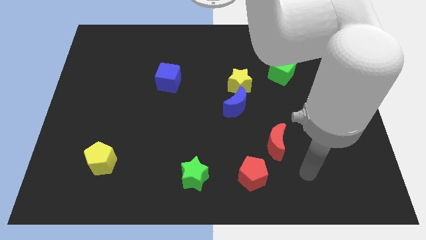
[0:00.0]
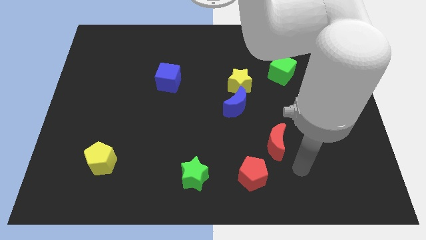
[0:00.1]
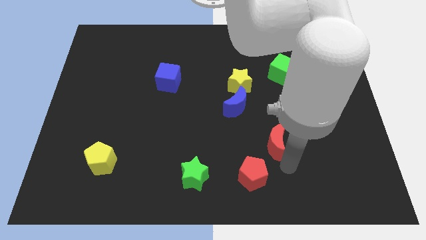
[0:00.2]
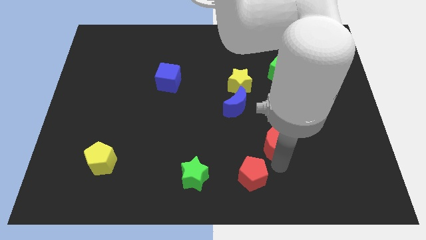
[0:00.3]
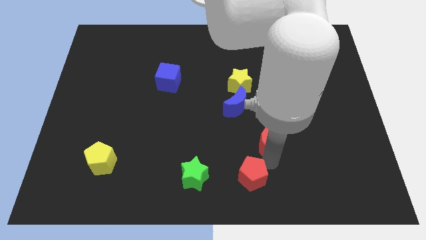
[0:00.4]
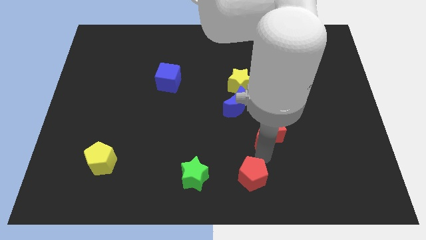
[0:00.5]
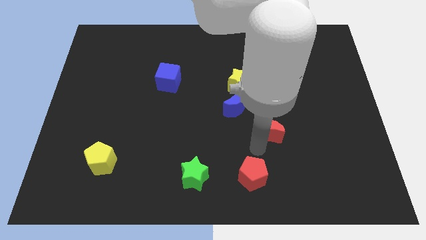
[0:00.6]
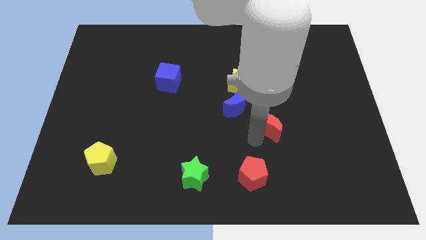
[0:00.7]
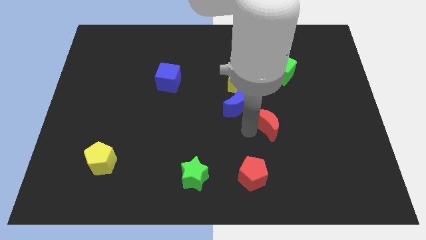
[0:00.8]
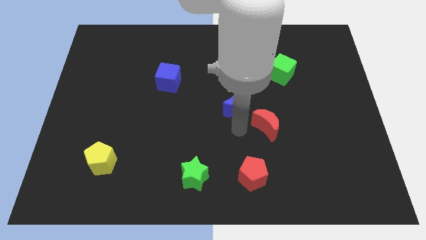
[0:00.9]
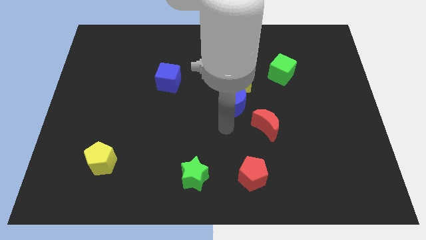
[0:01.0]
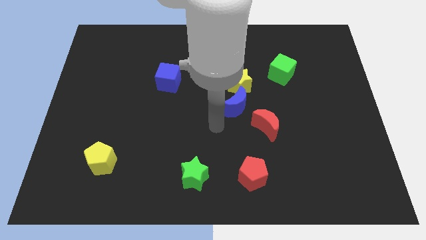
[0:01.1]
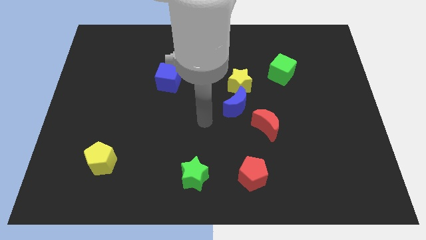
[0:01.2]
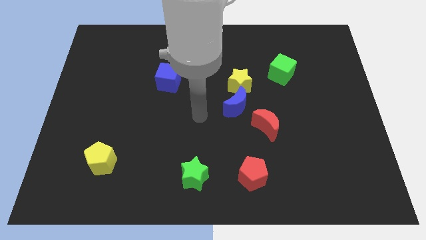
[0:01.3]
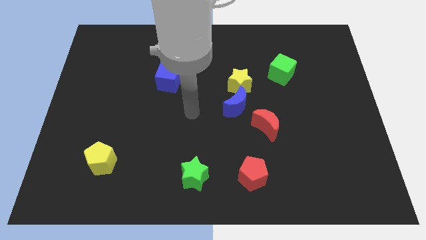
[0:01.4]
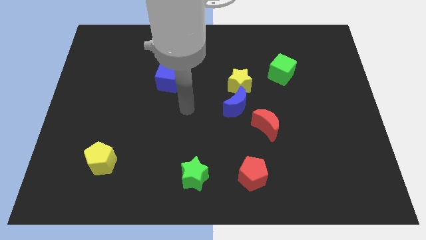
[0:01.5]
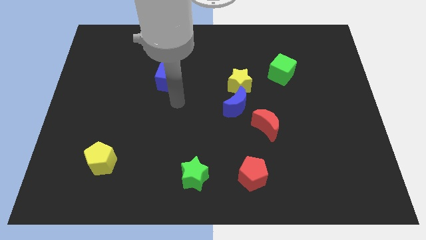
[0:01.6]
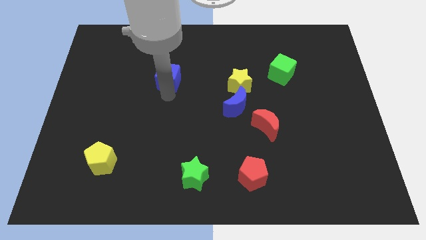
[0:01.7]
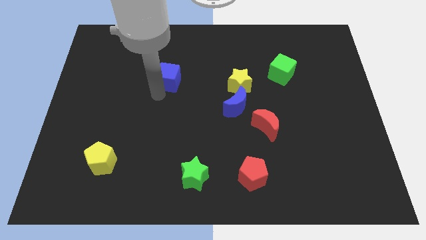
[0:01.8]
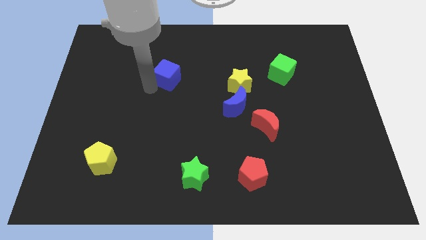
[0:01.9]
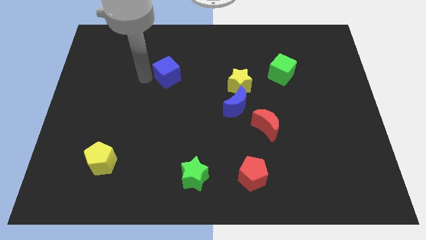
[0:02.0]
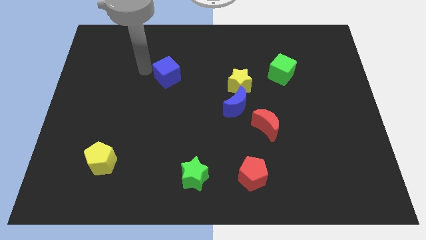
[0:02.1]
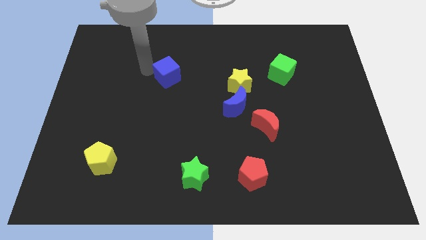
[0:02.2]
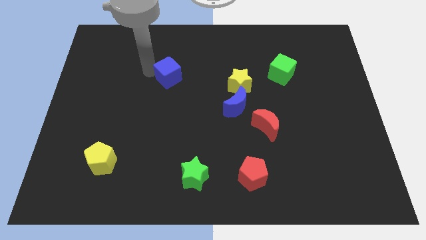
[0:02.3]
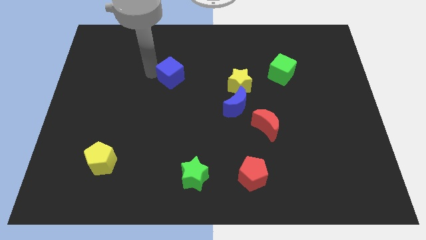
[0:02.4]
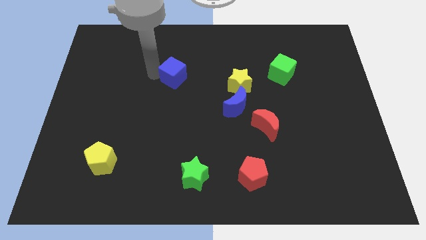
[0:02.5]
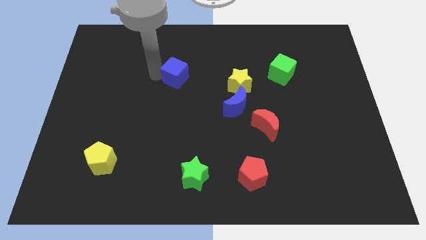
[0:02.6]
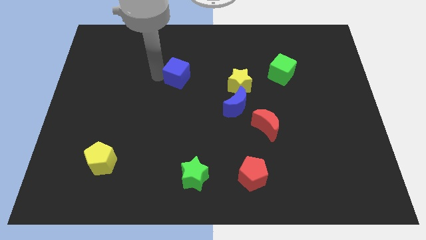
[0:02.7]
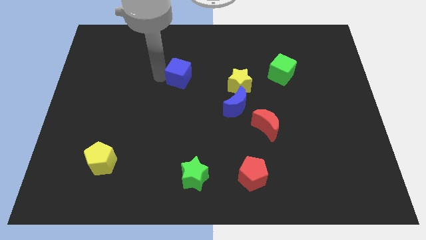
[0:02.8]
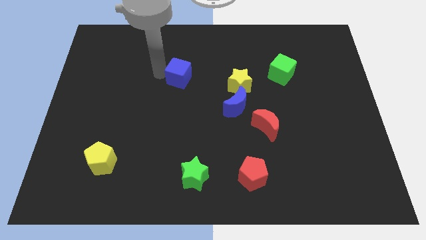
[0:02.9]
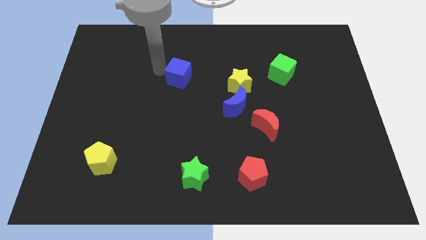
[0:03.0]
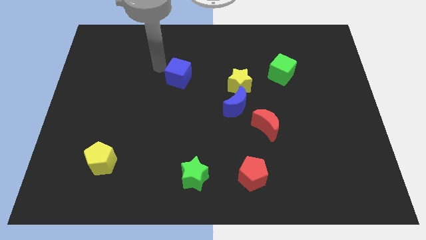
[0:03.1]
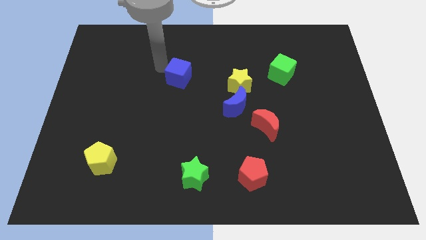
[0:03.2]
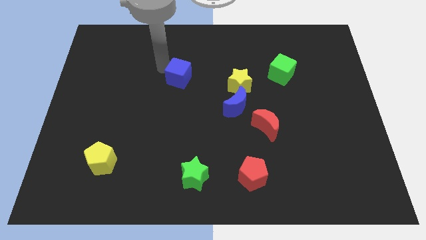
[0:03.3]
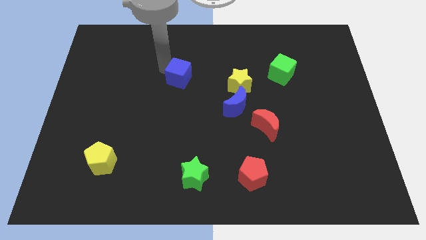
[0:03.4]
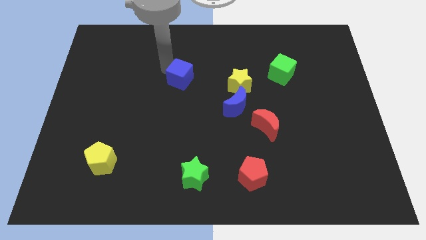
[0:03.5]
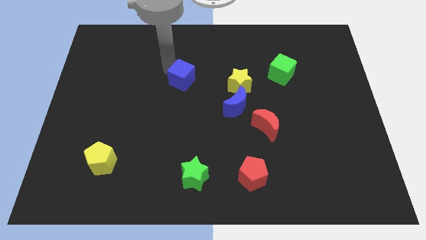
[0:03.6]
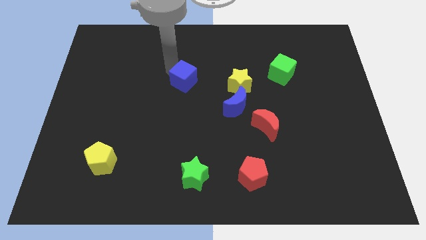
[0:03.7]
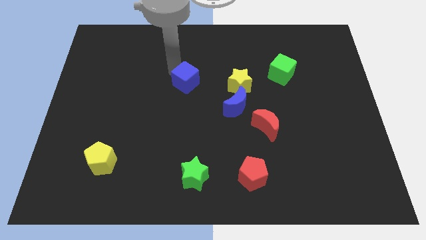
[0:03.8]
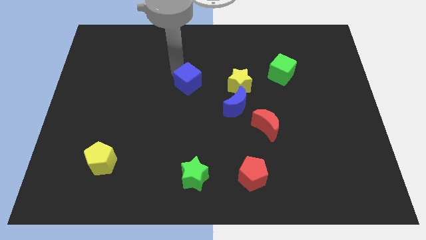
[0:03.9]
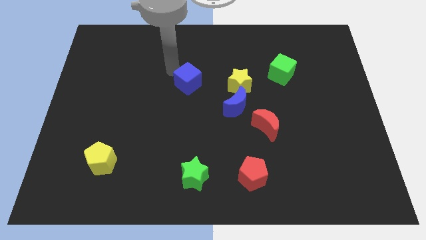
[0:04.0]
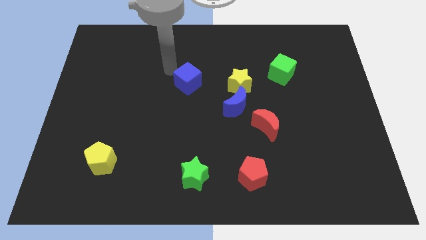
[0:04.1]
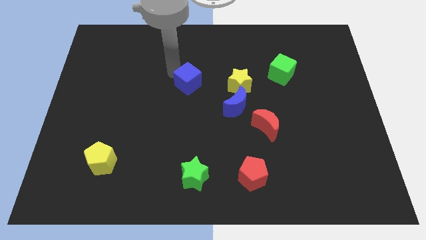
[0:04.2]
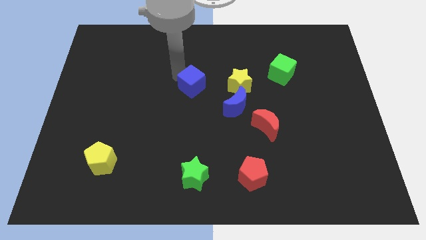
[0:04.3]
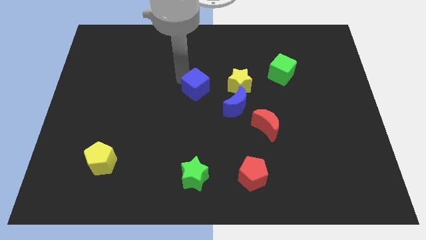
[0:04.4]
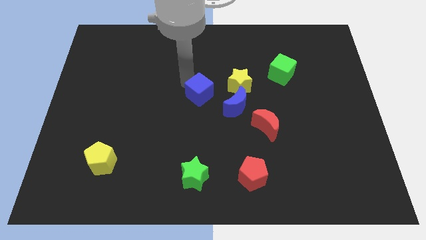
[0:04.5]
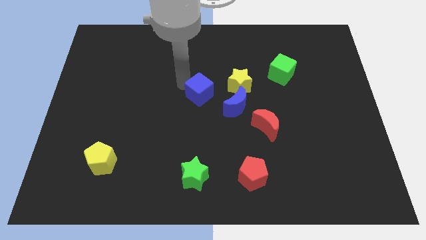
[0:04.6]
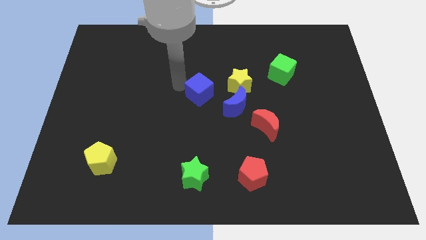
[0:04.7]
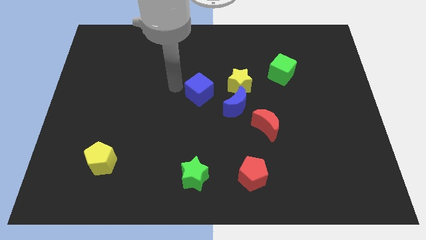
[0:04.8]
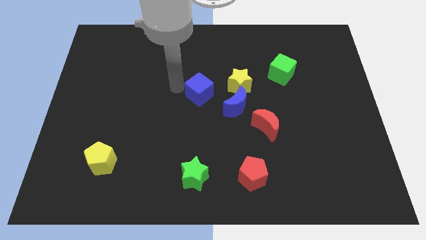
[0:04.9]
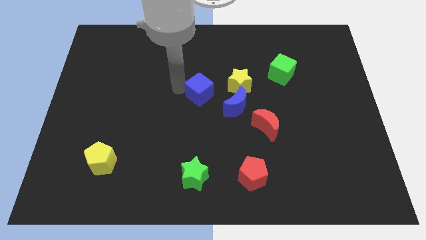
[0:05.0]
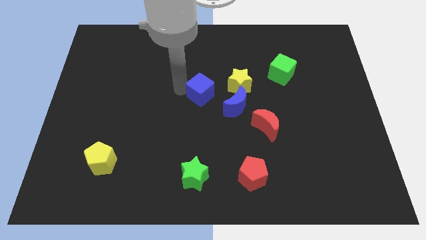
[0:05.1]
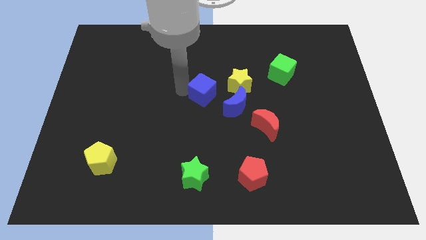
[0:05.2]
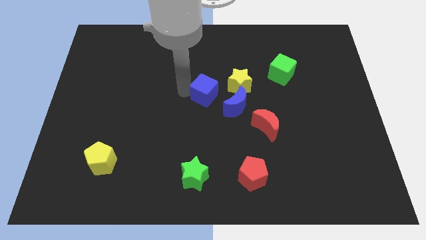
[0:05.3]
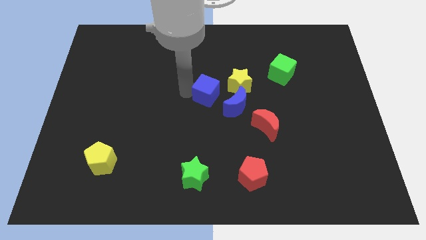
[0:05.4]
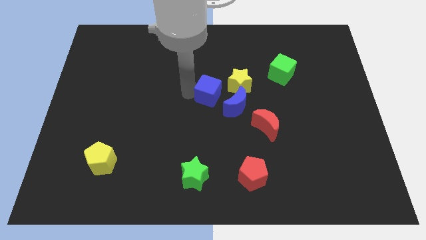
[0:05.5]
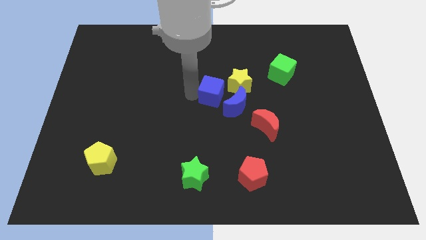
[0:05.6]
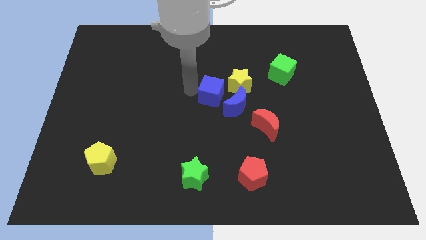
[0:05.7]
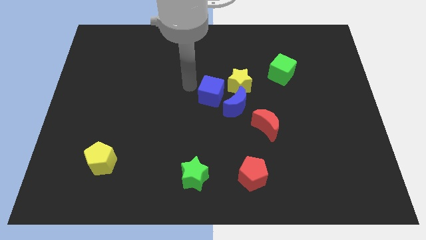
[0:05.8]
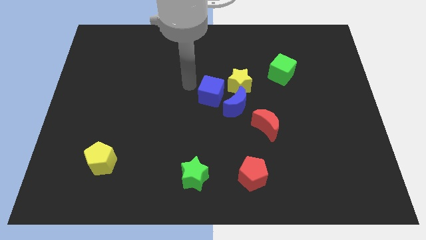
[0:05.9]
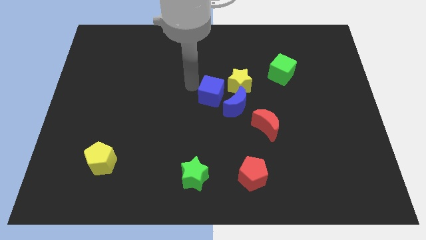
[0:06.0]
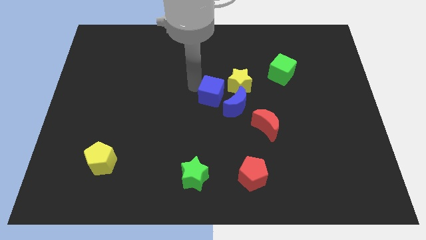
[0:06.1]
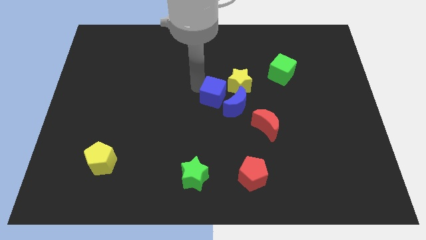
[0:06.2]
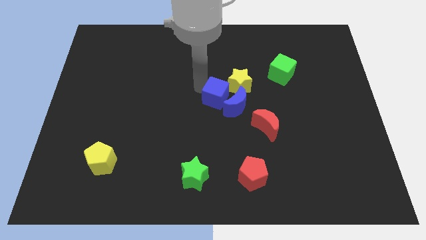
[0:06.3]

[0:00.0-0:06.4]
put the blue cube next to the blue moon

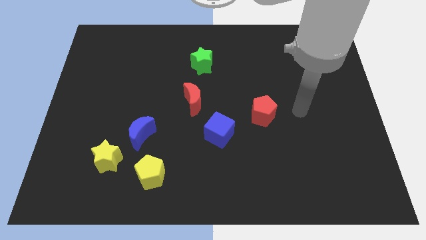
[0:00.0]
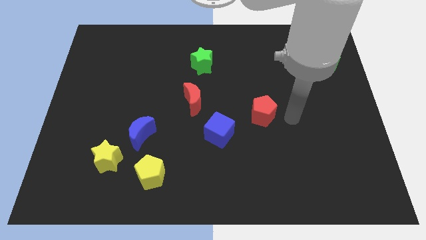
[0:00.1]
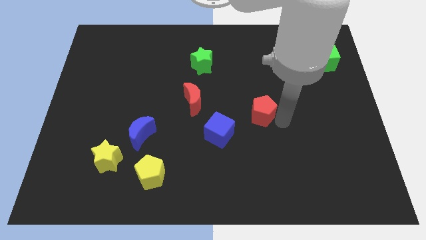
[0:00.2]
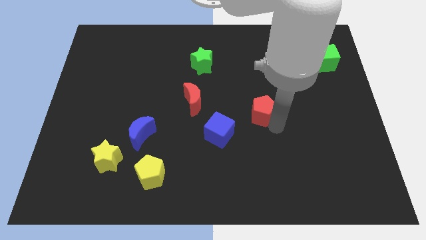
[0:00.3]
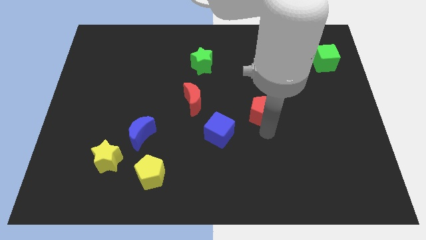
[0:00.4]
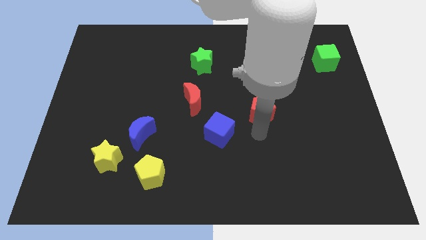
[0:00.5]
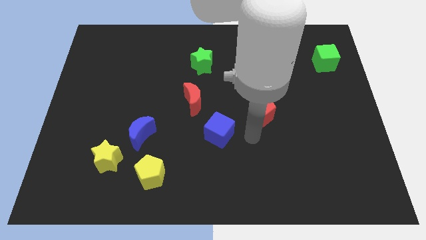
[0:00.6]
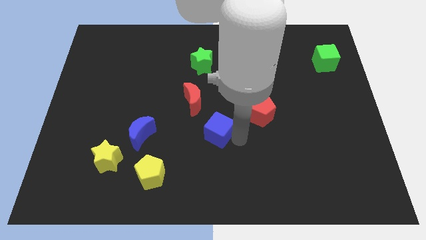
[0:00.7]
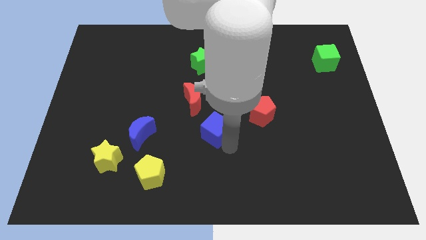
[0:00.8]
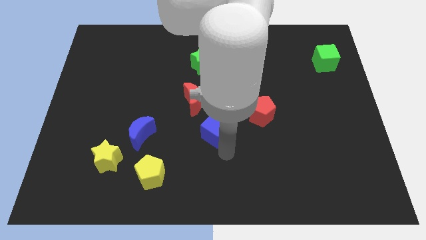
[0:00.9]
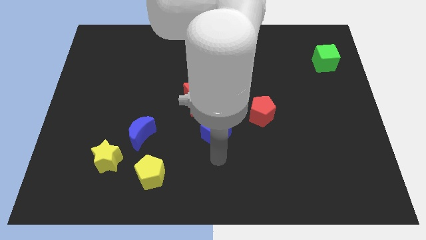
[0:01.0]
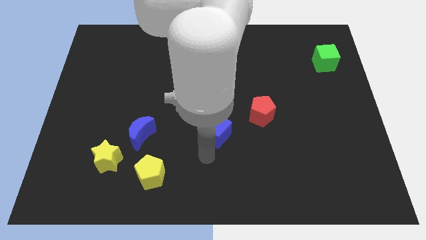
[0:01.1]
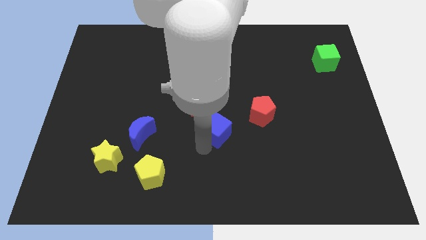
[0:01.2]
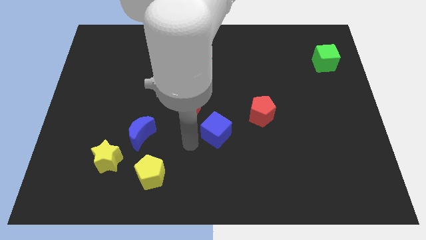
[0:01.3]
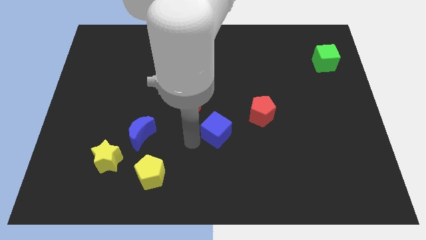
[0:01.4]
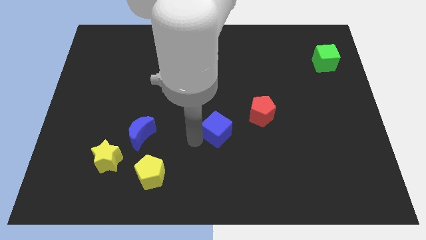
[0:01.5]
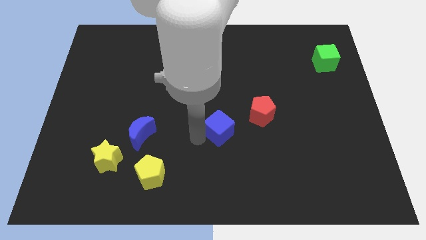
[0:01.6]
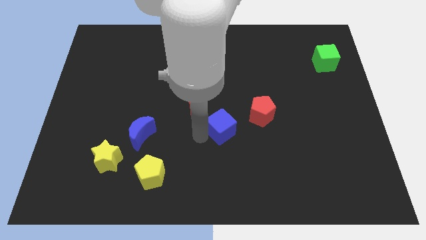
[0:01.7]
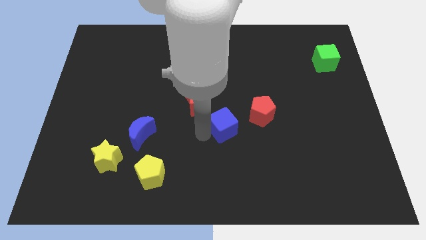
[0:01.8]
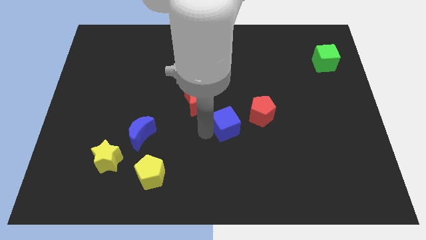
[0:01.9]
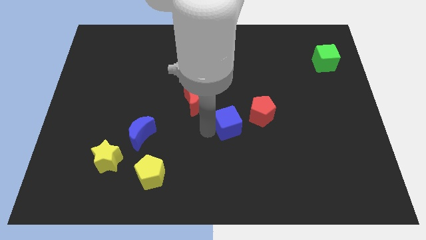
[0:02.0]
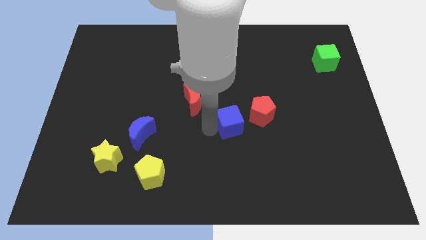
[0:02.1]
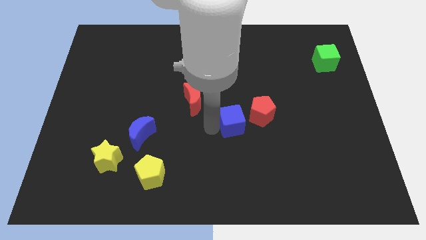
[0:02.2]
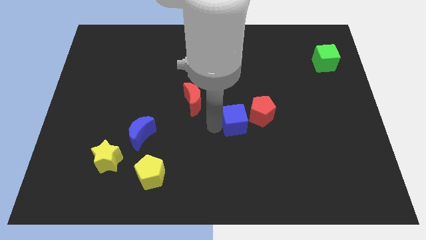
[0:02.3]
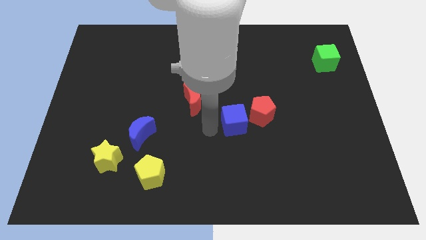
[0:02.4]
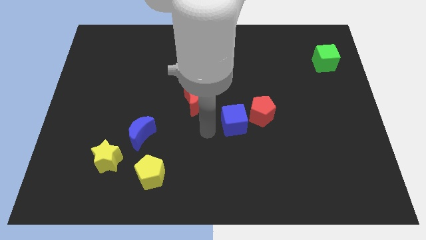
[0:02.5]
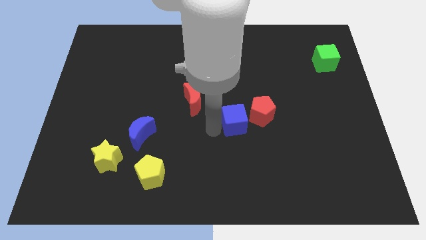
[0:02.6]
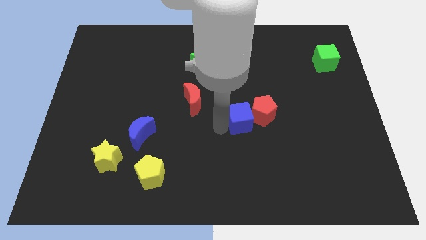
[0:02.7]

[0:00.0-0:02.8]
push the blue cube close to the red pentagon
